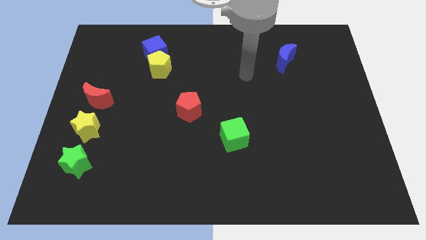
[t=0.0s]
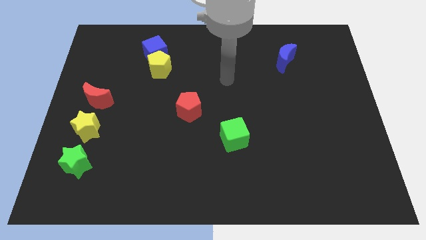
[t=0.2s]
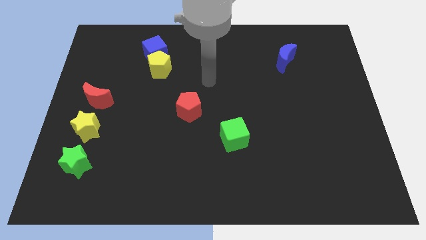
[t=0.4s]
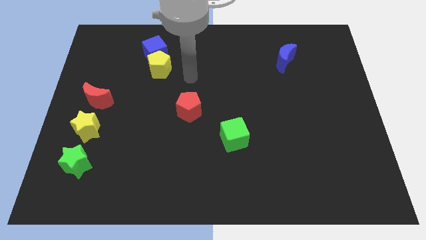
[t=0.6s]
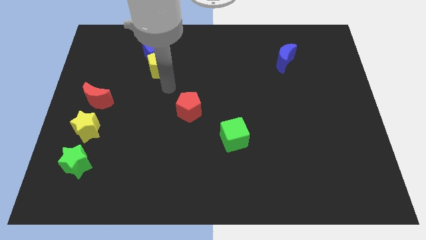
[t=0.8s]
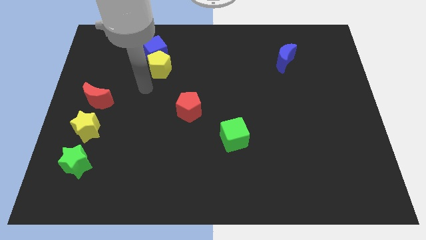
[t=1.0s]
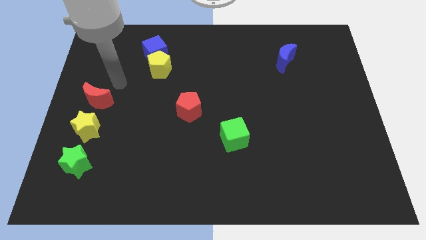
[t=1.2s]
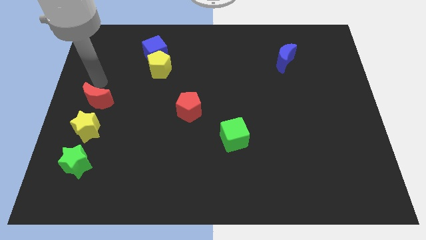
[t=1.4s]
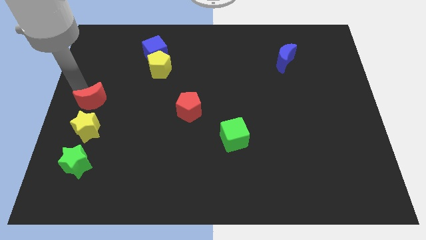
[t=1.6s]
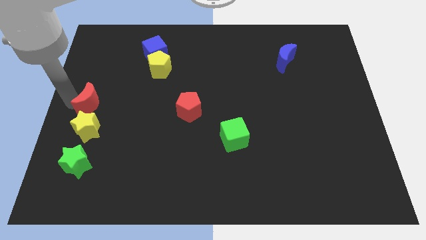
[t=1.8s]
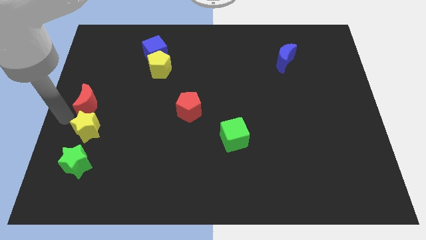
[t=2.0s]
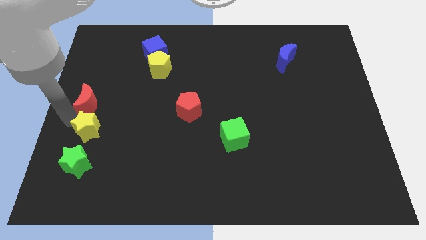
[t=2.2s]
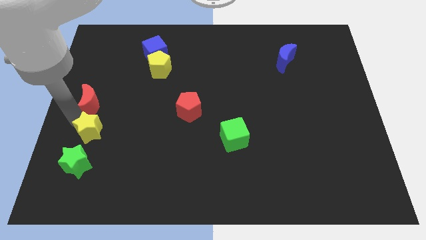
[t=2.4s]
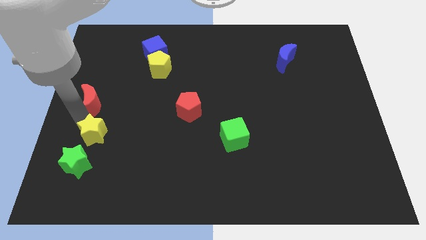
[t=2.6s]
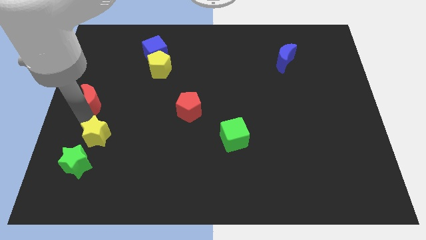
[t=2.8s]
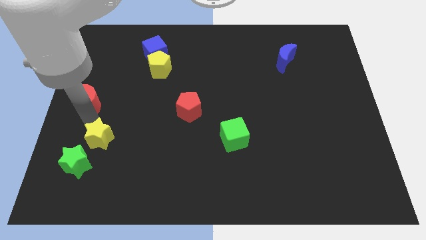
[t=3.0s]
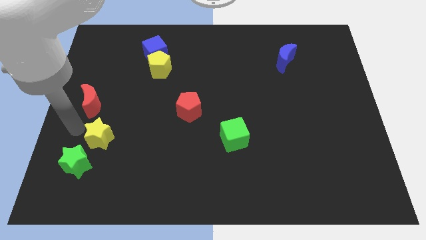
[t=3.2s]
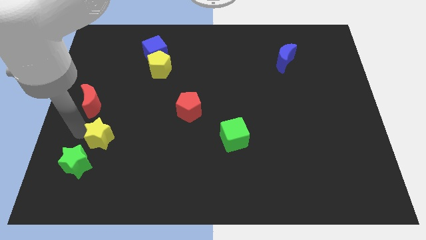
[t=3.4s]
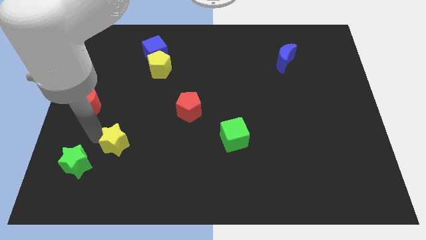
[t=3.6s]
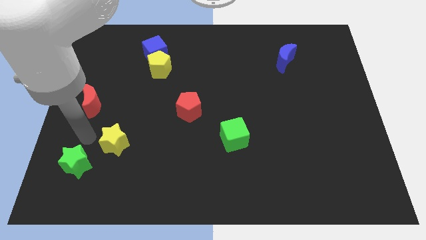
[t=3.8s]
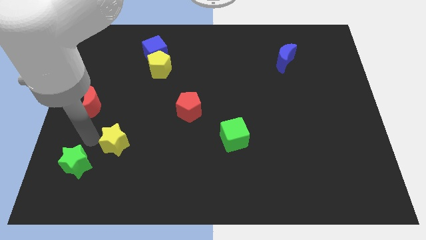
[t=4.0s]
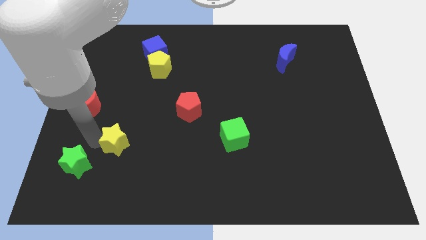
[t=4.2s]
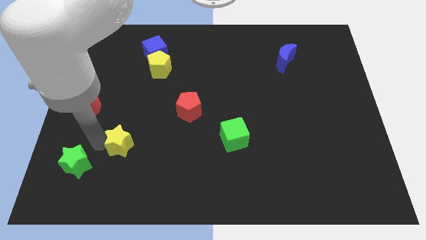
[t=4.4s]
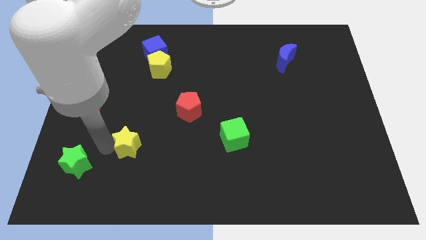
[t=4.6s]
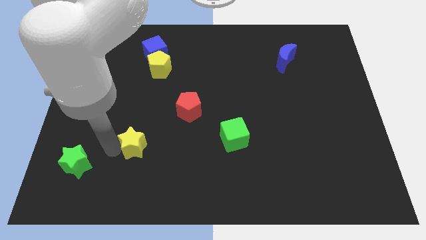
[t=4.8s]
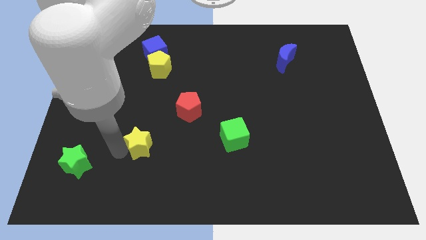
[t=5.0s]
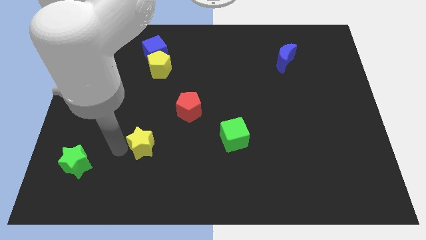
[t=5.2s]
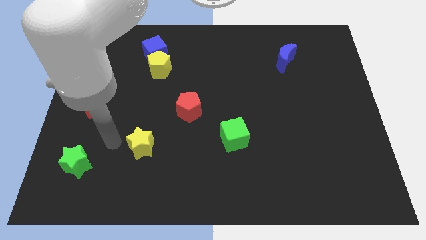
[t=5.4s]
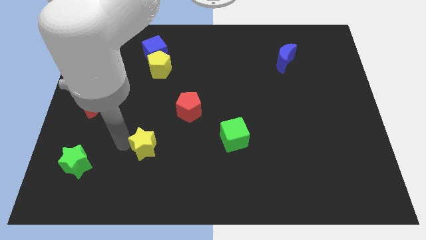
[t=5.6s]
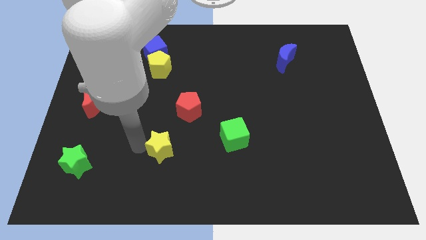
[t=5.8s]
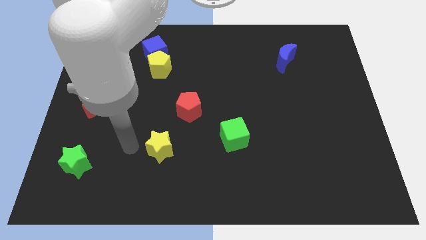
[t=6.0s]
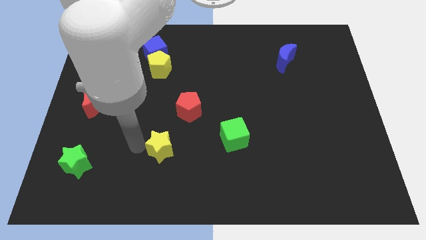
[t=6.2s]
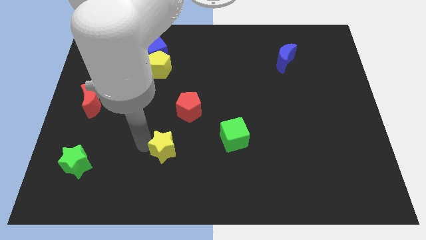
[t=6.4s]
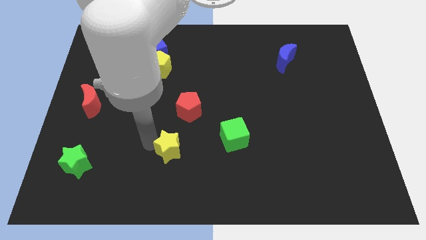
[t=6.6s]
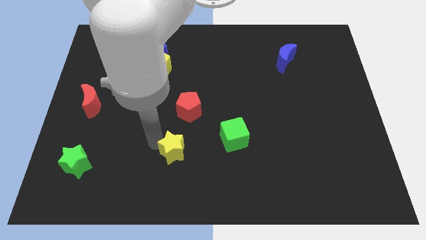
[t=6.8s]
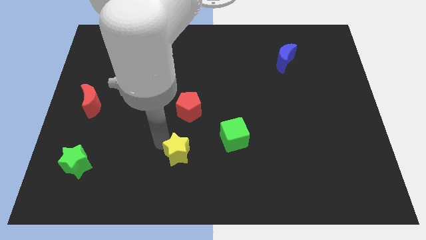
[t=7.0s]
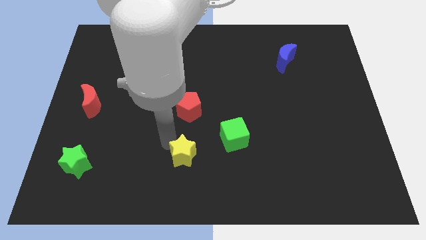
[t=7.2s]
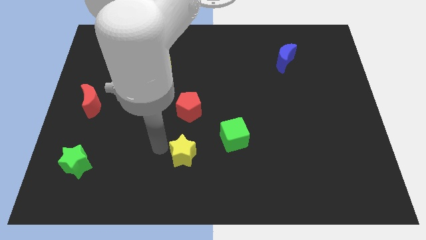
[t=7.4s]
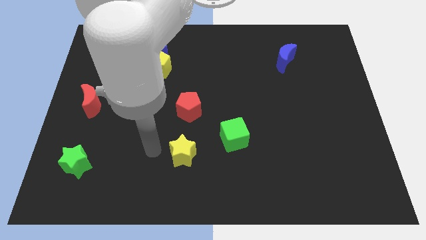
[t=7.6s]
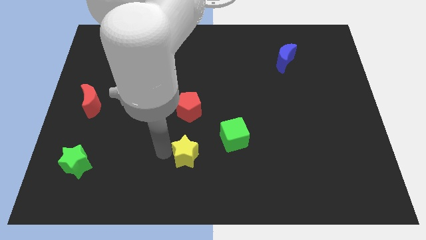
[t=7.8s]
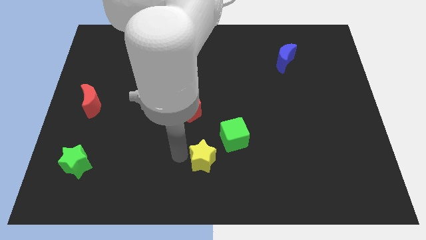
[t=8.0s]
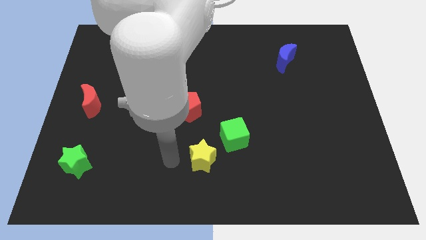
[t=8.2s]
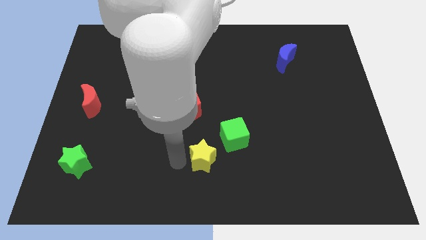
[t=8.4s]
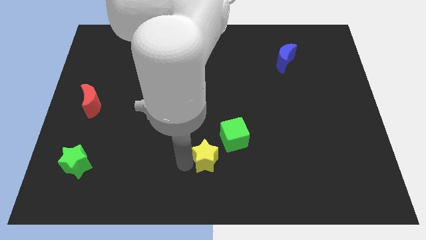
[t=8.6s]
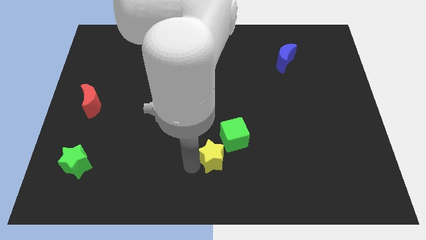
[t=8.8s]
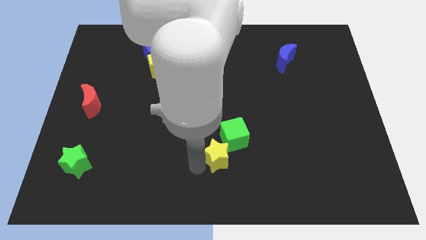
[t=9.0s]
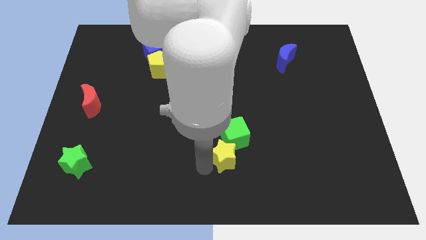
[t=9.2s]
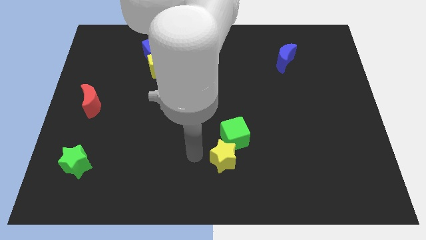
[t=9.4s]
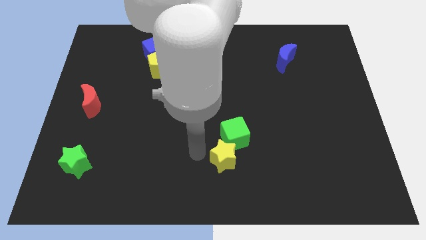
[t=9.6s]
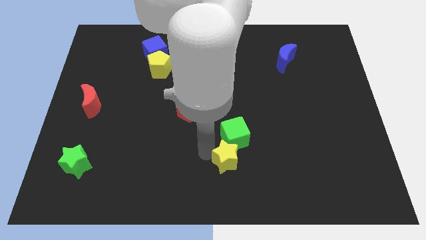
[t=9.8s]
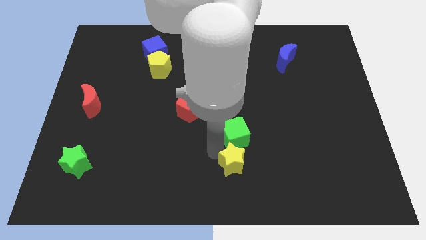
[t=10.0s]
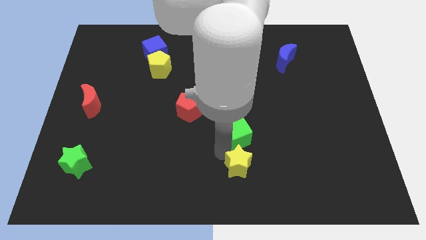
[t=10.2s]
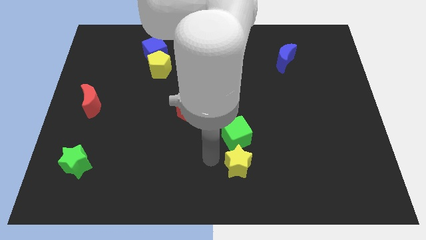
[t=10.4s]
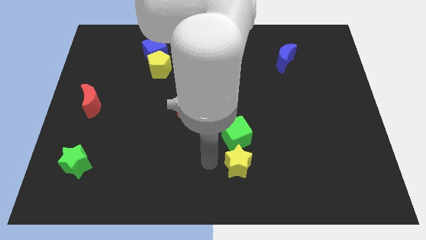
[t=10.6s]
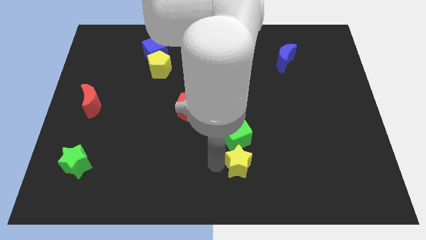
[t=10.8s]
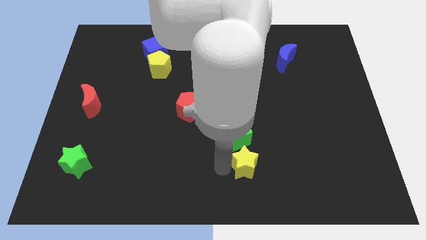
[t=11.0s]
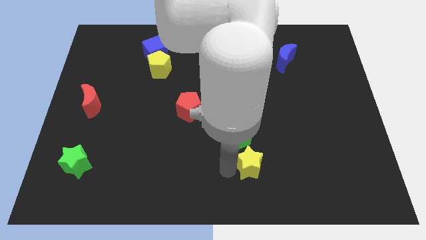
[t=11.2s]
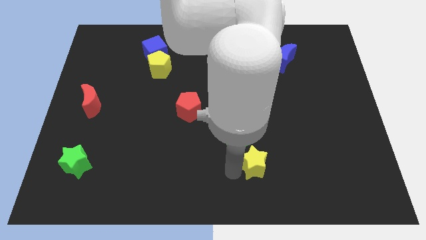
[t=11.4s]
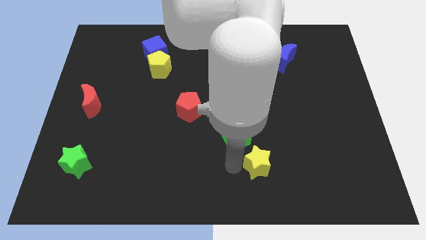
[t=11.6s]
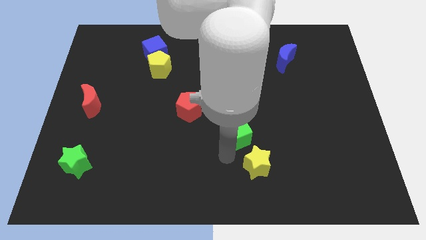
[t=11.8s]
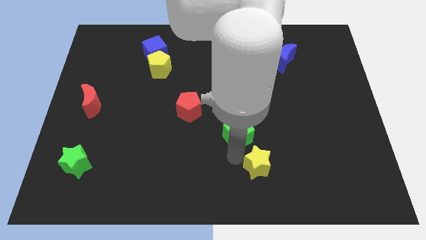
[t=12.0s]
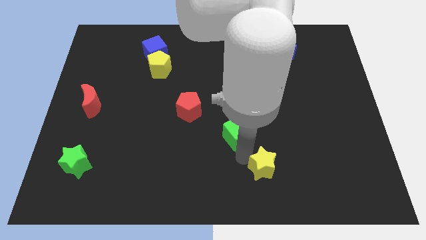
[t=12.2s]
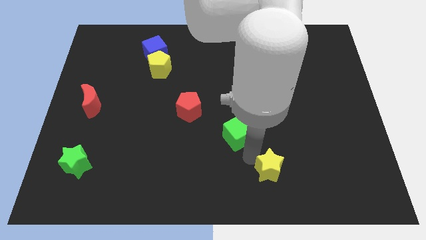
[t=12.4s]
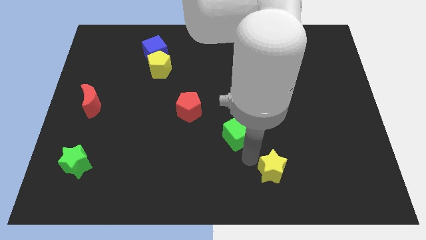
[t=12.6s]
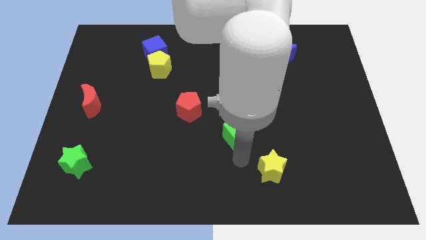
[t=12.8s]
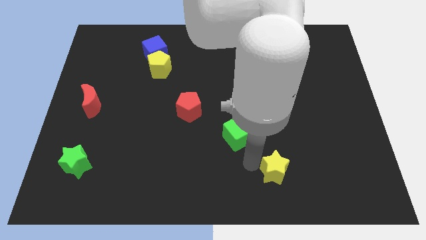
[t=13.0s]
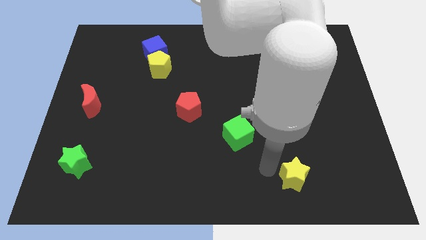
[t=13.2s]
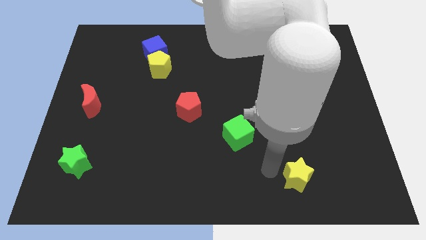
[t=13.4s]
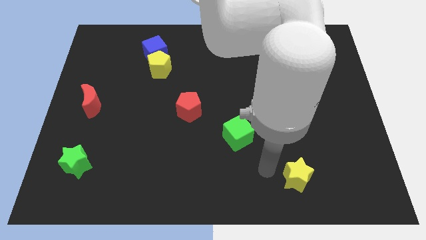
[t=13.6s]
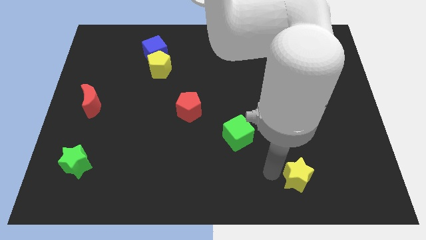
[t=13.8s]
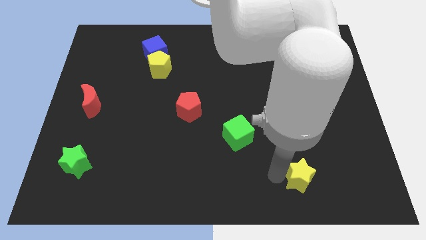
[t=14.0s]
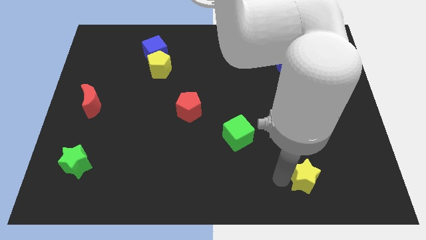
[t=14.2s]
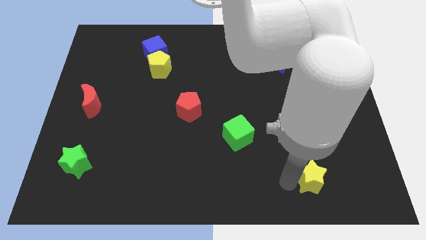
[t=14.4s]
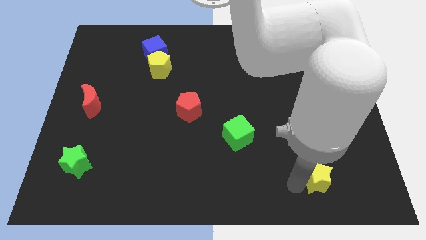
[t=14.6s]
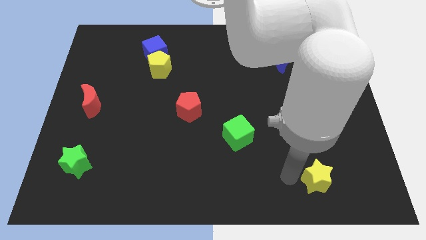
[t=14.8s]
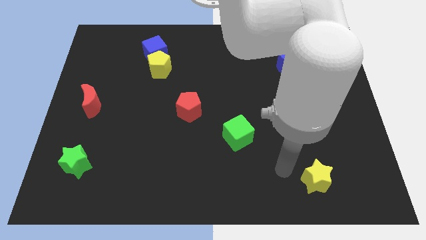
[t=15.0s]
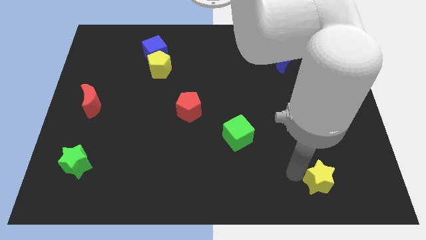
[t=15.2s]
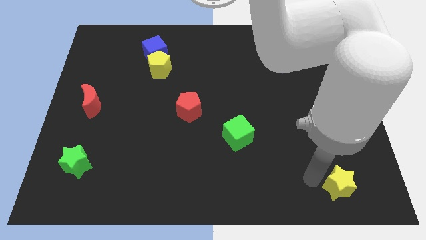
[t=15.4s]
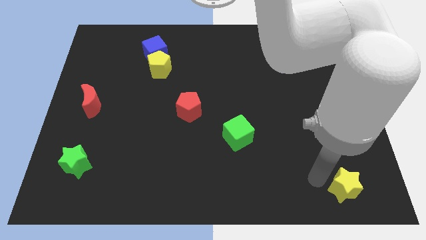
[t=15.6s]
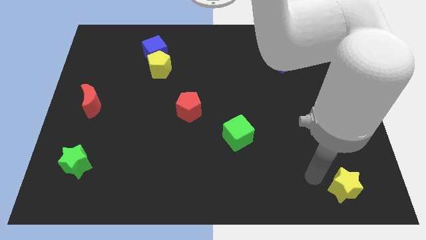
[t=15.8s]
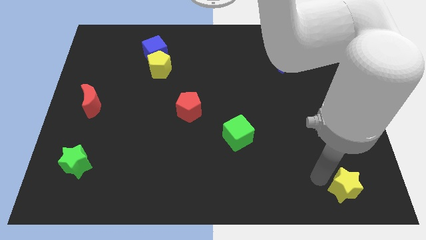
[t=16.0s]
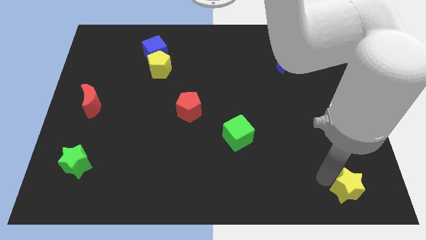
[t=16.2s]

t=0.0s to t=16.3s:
push the yellow star to the bottom right of the board

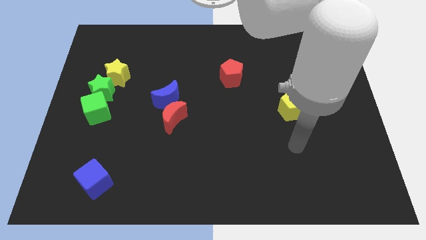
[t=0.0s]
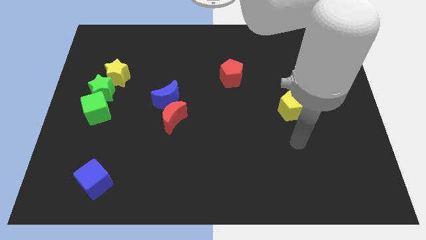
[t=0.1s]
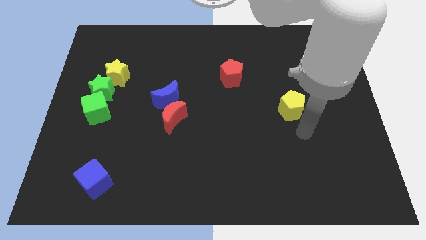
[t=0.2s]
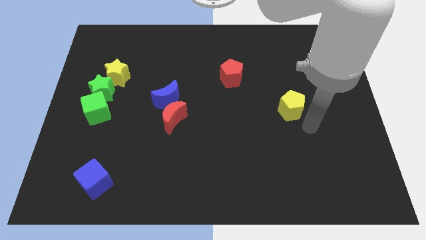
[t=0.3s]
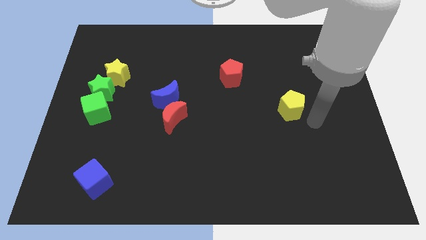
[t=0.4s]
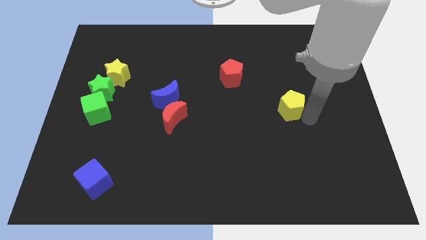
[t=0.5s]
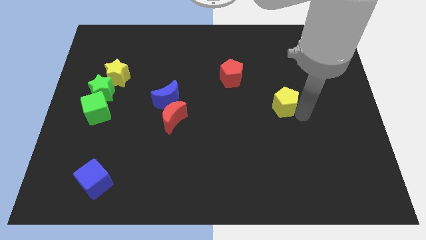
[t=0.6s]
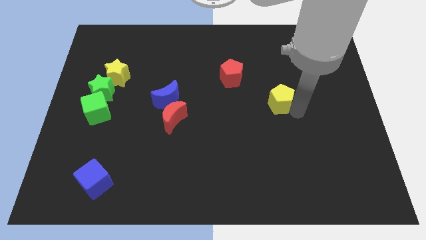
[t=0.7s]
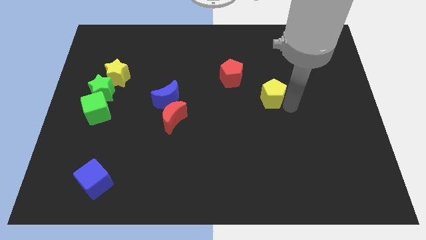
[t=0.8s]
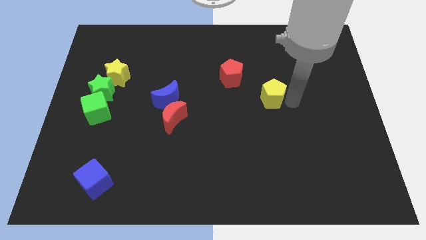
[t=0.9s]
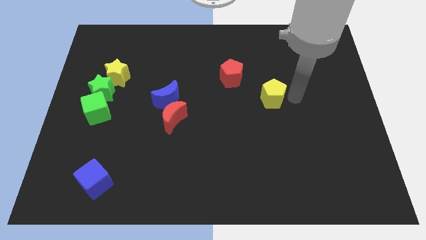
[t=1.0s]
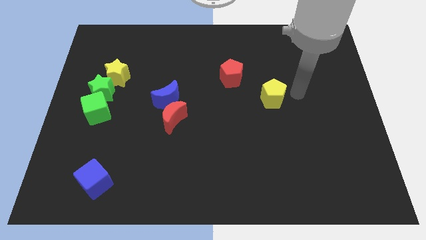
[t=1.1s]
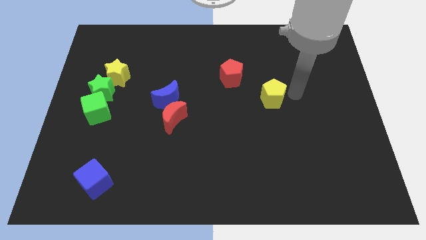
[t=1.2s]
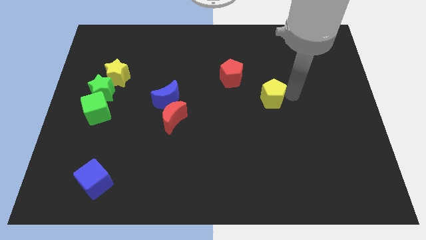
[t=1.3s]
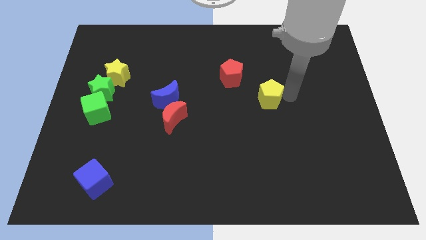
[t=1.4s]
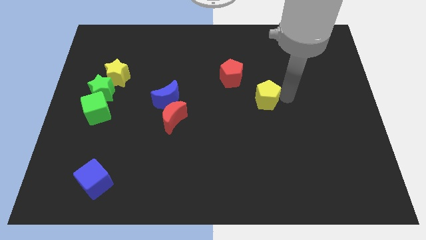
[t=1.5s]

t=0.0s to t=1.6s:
slide the yellow pentagon to the middle of the board
